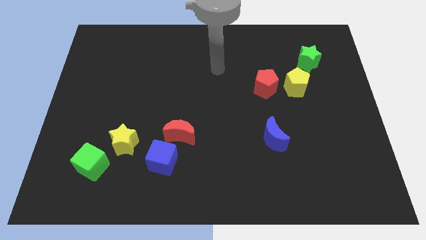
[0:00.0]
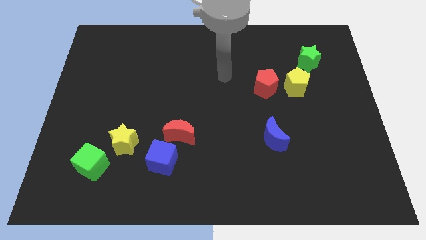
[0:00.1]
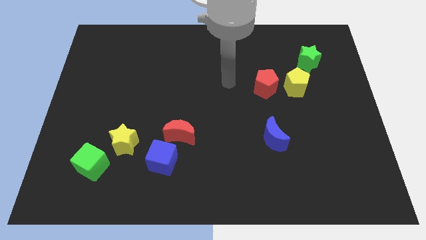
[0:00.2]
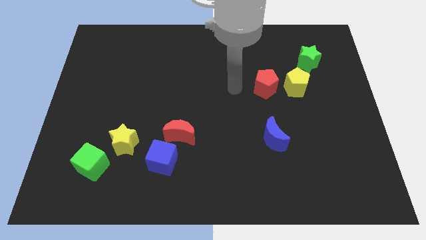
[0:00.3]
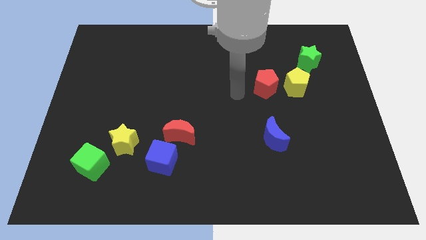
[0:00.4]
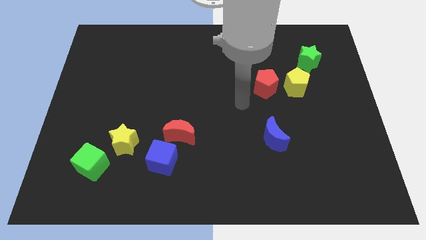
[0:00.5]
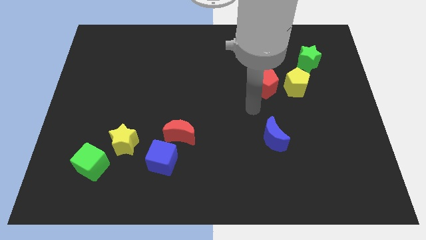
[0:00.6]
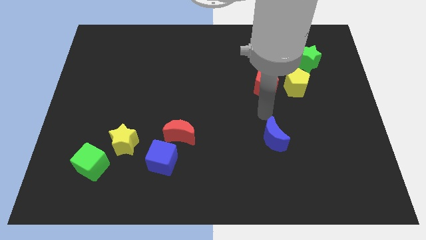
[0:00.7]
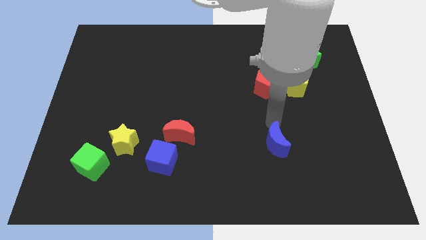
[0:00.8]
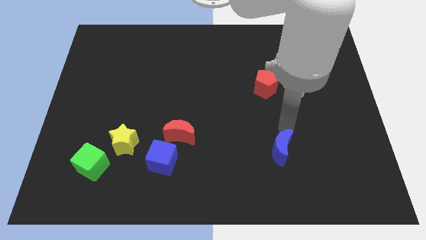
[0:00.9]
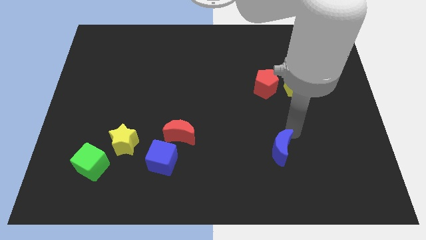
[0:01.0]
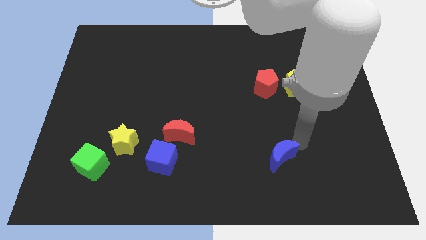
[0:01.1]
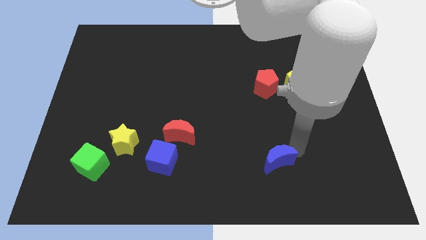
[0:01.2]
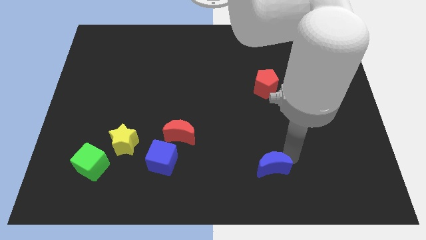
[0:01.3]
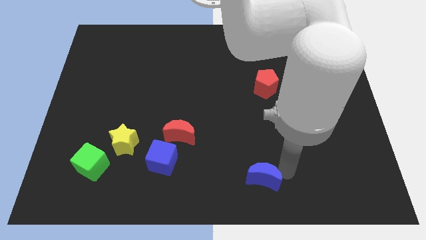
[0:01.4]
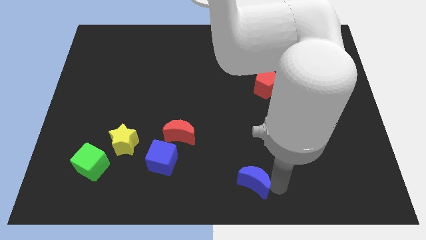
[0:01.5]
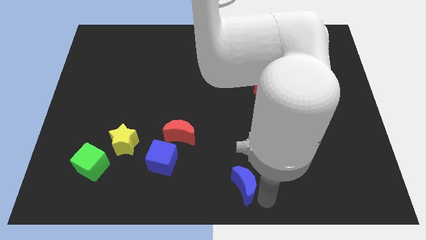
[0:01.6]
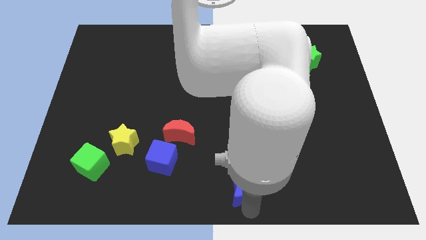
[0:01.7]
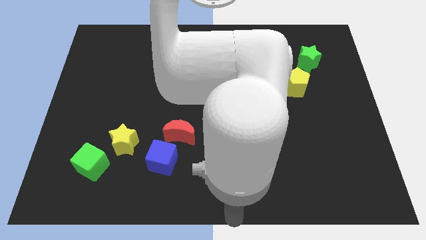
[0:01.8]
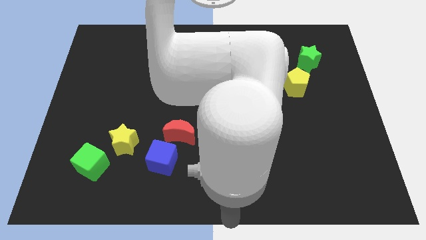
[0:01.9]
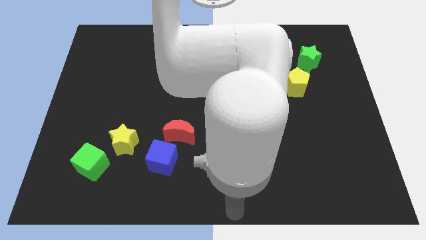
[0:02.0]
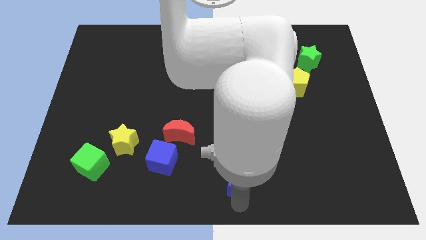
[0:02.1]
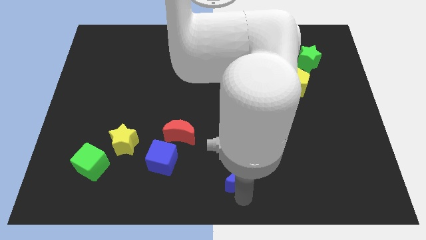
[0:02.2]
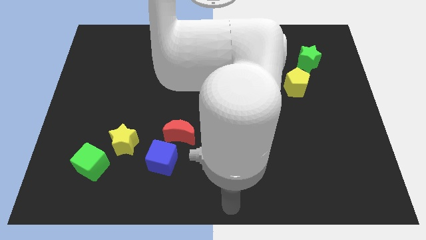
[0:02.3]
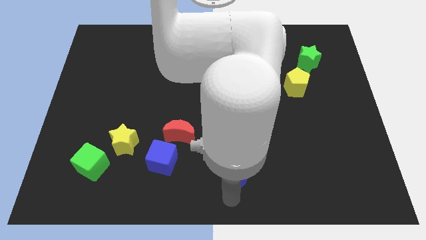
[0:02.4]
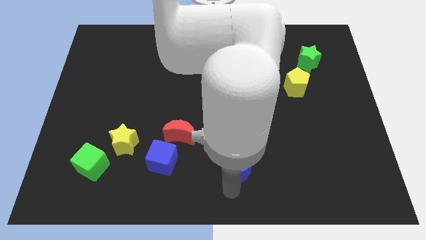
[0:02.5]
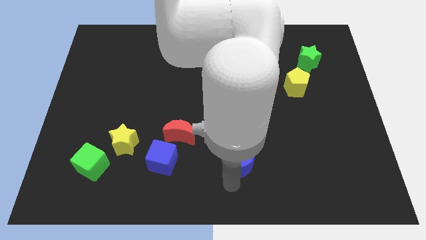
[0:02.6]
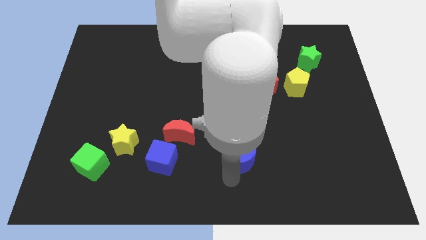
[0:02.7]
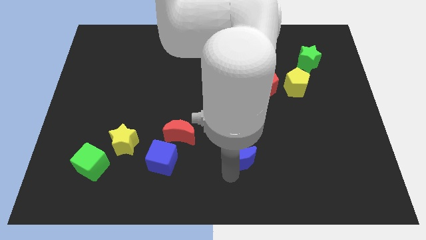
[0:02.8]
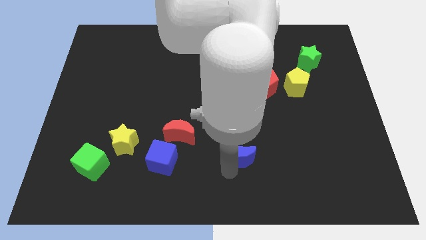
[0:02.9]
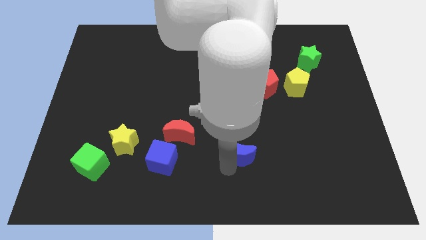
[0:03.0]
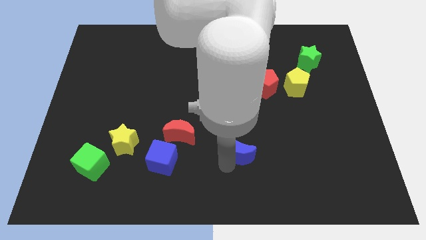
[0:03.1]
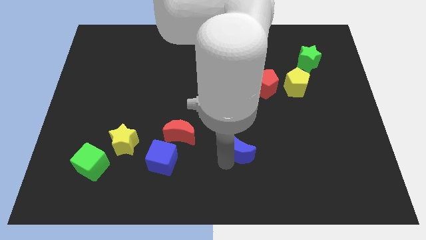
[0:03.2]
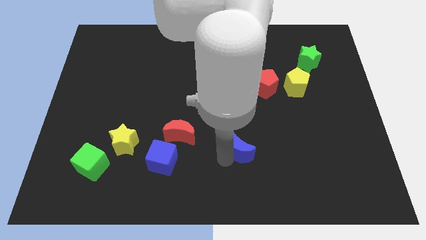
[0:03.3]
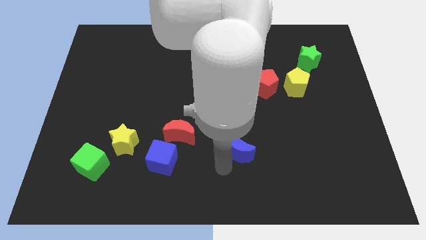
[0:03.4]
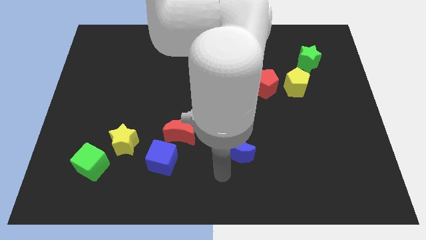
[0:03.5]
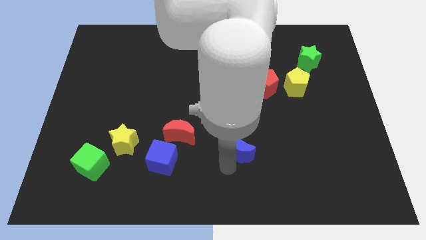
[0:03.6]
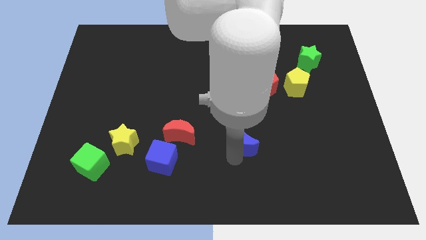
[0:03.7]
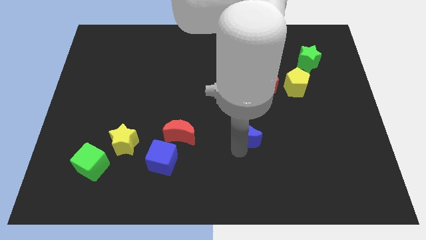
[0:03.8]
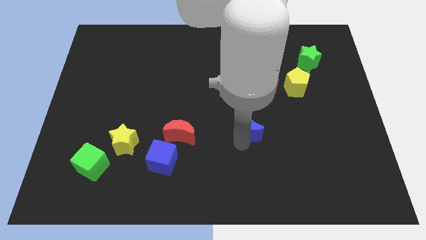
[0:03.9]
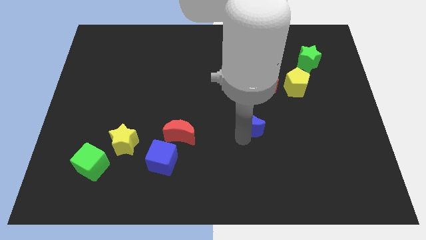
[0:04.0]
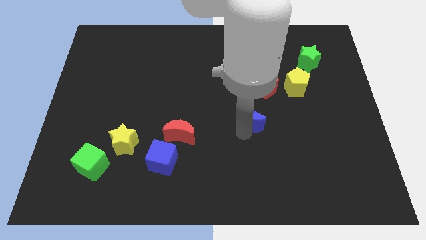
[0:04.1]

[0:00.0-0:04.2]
push the blue moon diagonally up and to the left a little bit

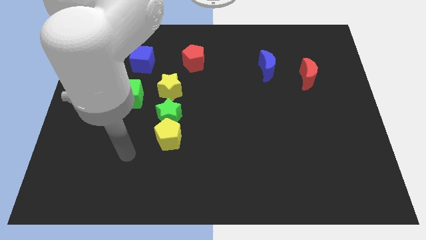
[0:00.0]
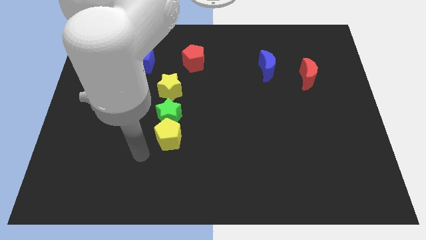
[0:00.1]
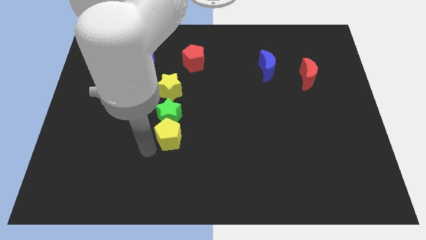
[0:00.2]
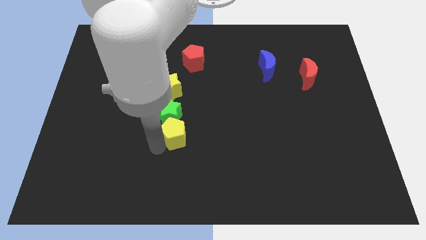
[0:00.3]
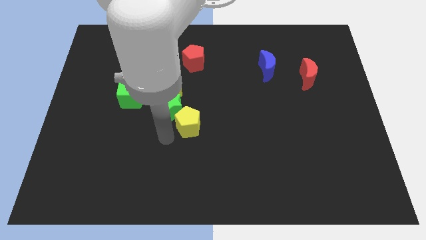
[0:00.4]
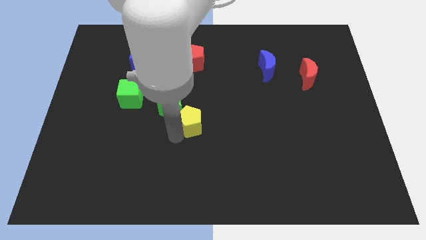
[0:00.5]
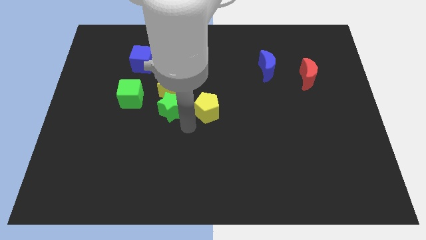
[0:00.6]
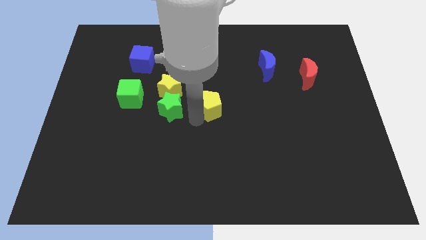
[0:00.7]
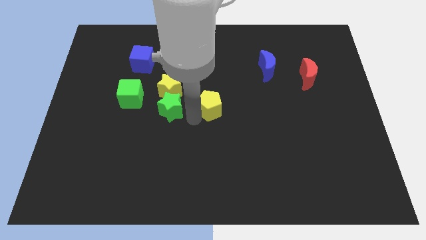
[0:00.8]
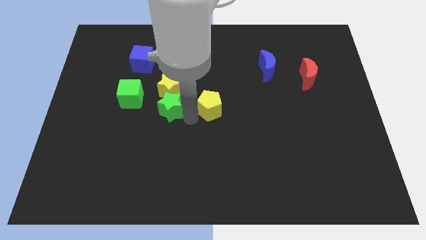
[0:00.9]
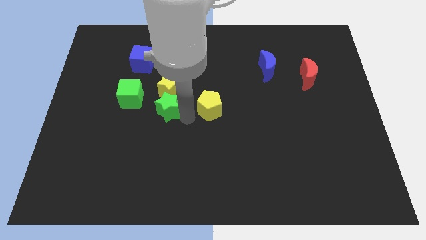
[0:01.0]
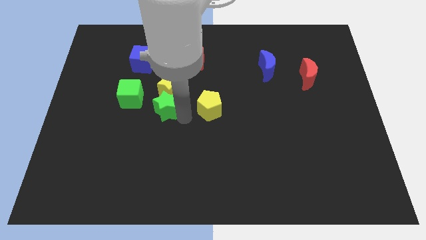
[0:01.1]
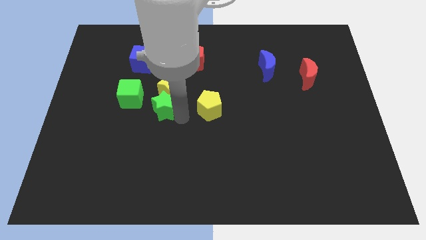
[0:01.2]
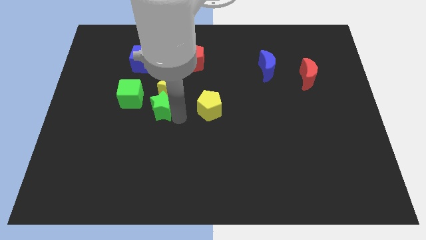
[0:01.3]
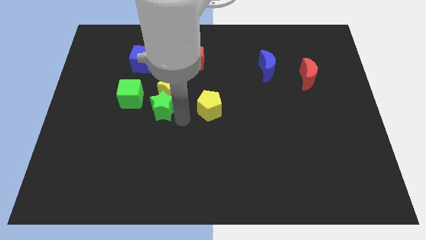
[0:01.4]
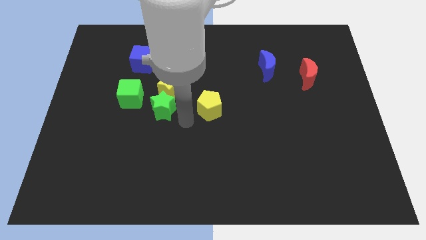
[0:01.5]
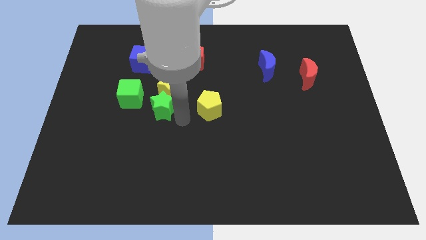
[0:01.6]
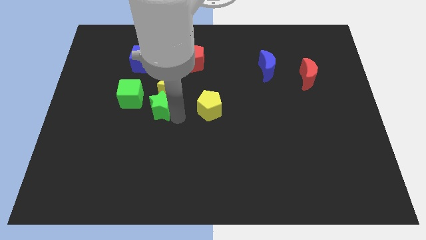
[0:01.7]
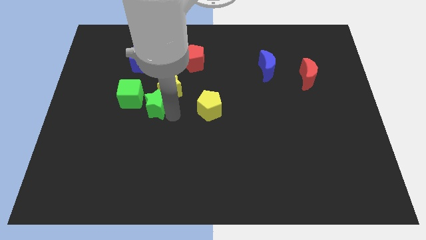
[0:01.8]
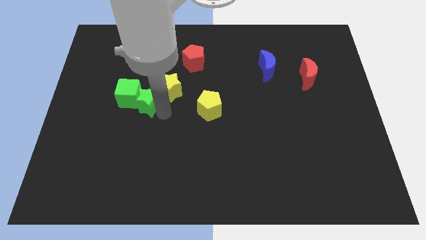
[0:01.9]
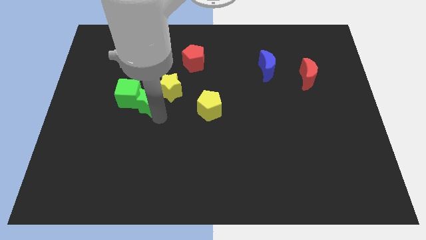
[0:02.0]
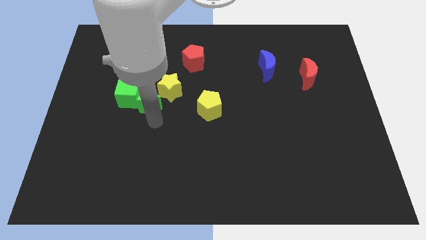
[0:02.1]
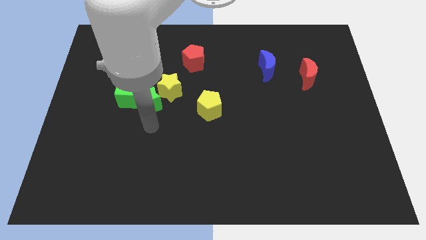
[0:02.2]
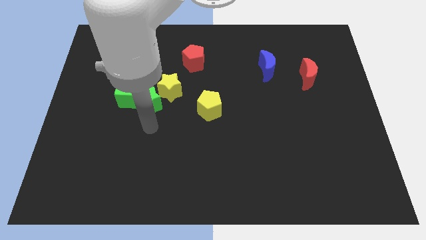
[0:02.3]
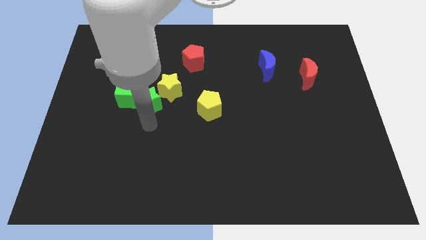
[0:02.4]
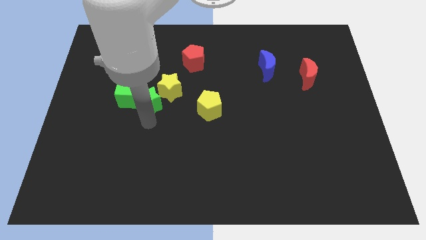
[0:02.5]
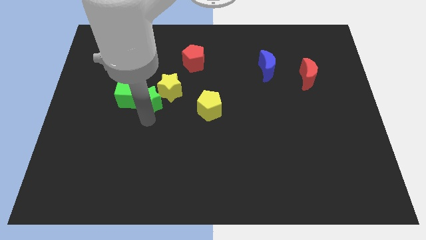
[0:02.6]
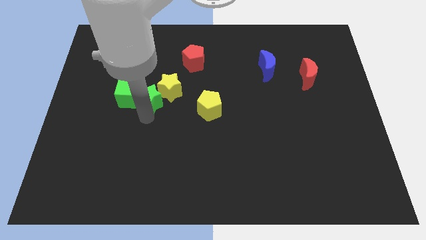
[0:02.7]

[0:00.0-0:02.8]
move the green star a little up and then left

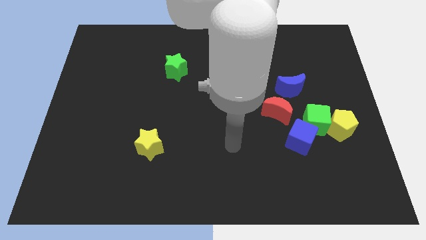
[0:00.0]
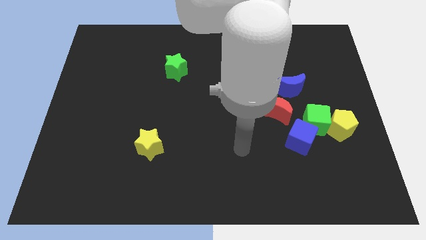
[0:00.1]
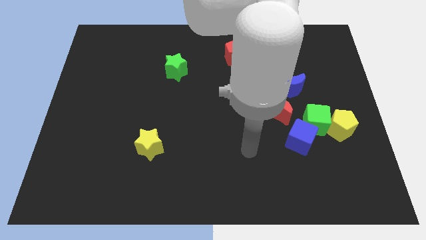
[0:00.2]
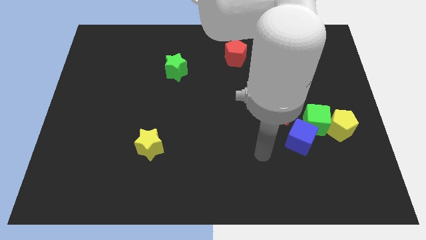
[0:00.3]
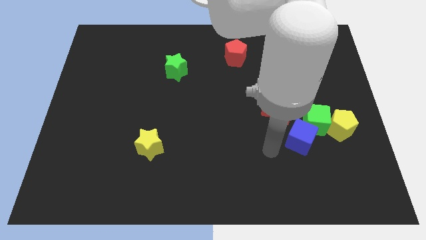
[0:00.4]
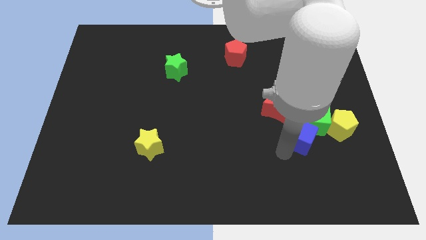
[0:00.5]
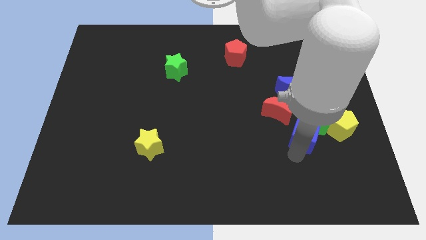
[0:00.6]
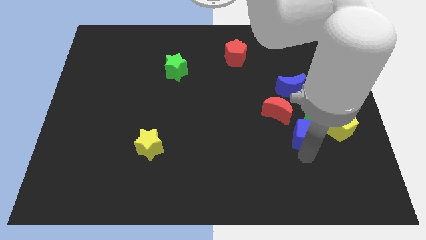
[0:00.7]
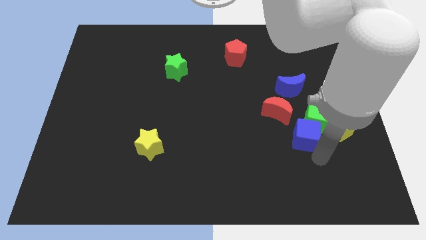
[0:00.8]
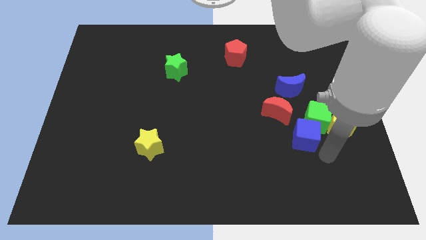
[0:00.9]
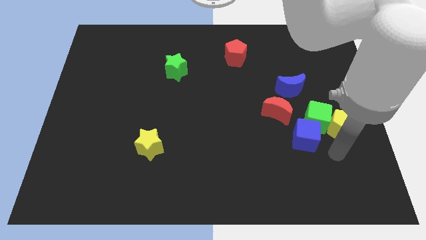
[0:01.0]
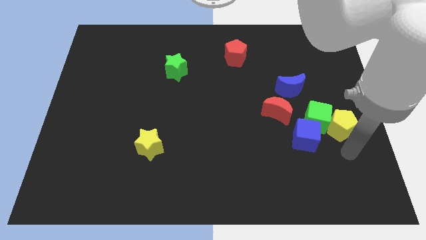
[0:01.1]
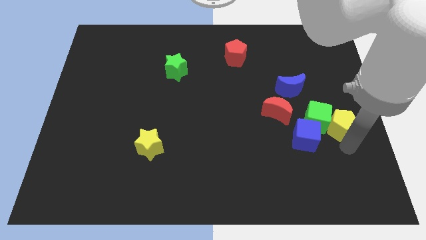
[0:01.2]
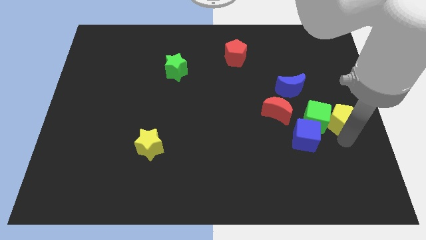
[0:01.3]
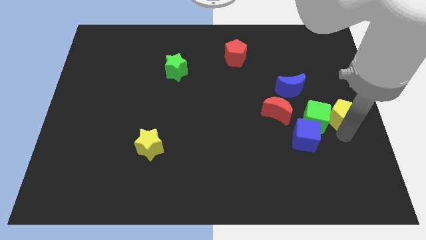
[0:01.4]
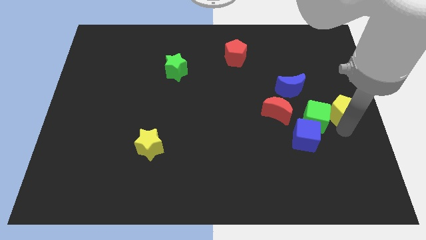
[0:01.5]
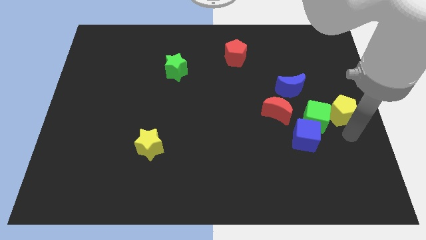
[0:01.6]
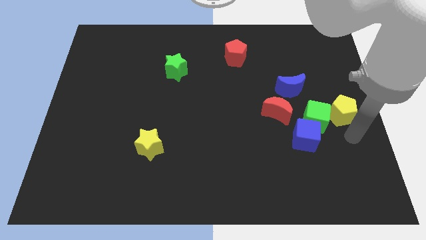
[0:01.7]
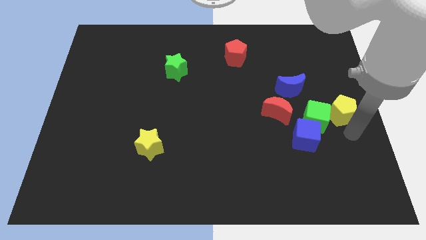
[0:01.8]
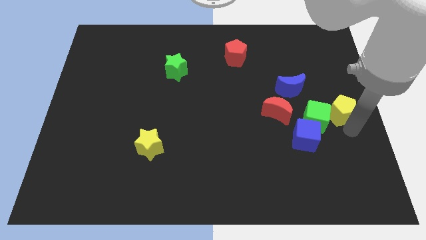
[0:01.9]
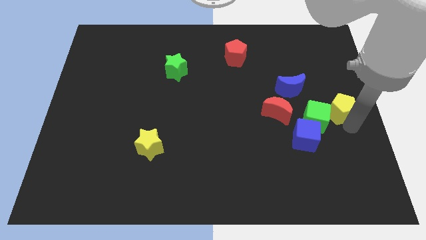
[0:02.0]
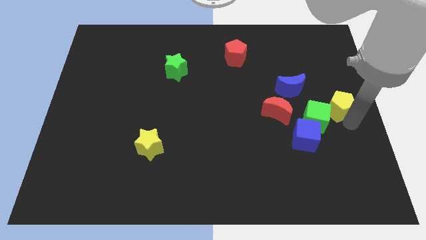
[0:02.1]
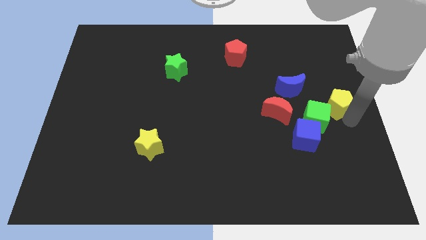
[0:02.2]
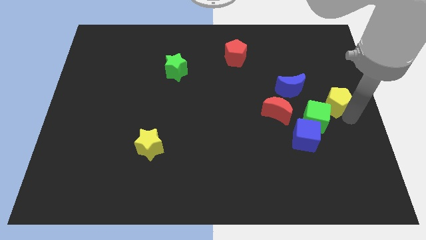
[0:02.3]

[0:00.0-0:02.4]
slightly push the yellow pentagon up
